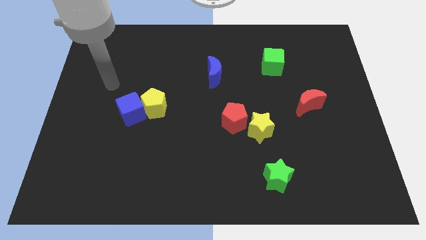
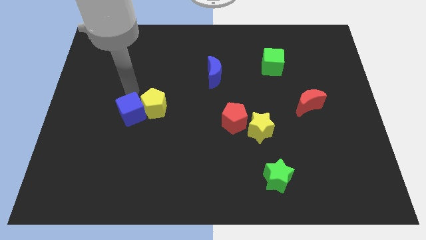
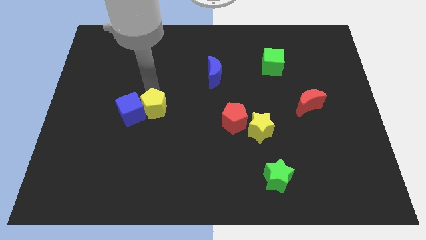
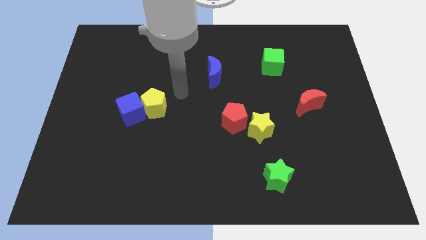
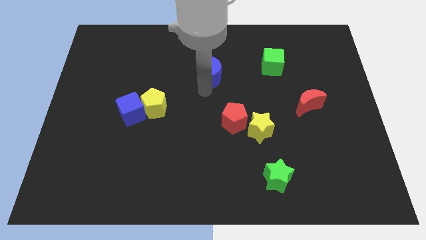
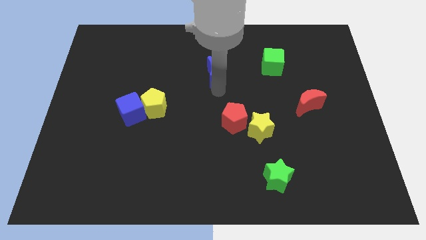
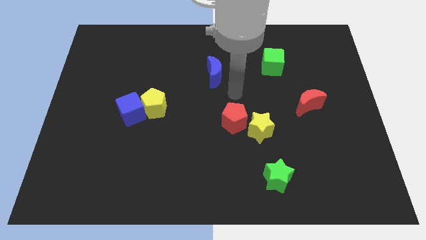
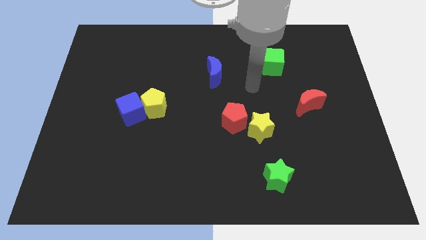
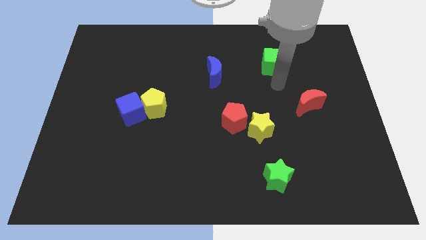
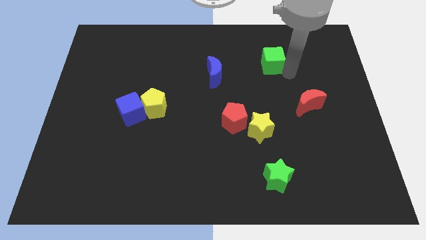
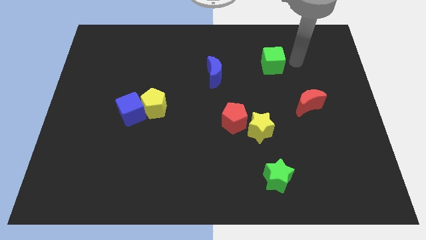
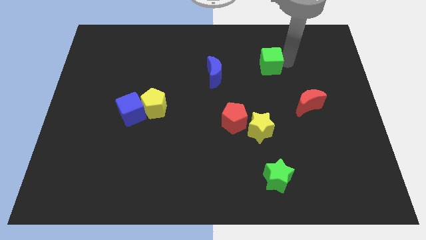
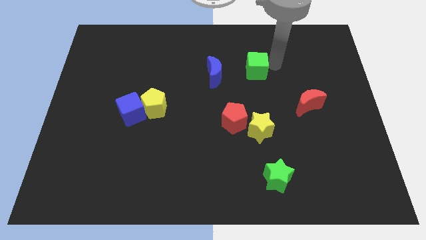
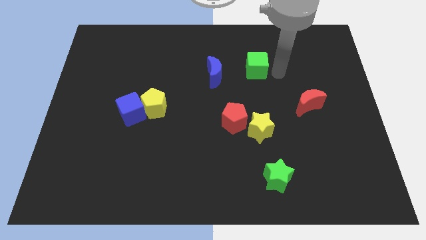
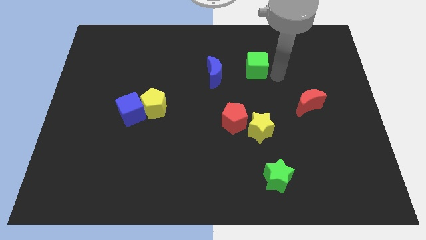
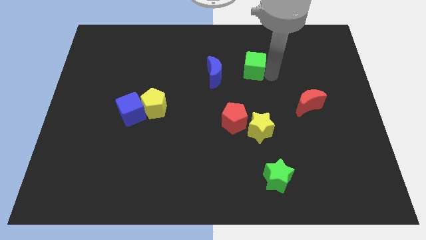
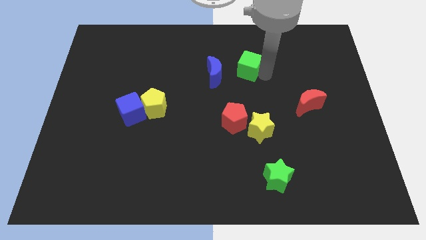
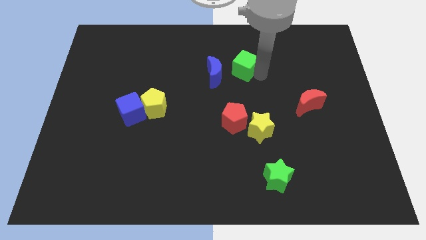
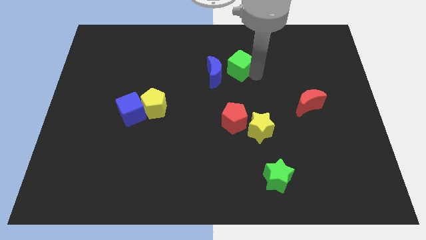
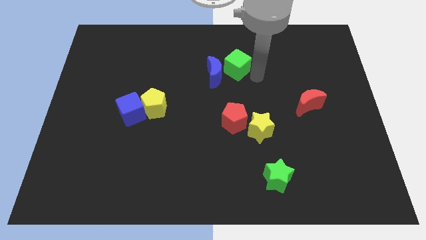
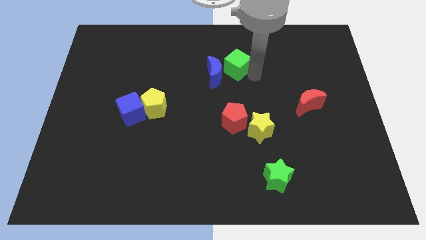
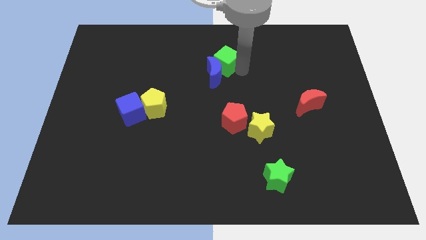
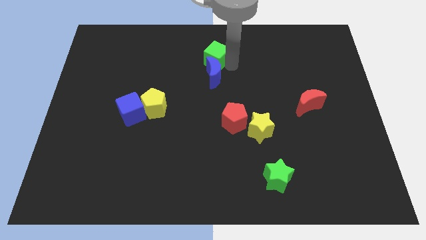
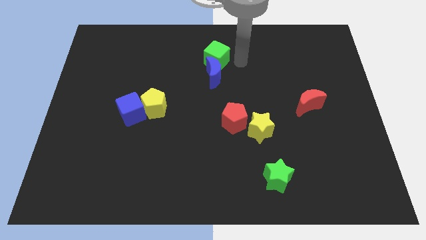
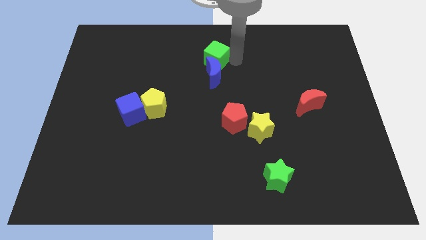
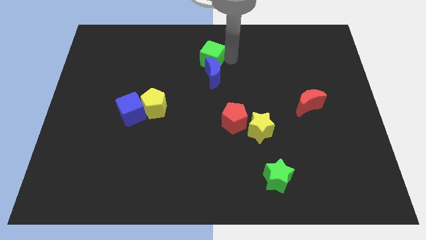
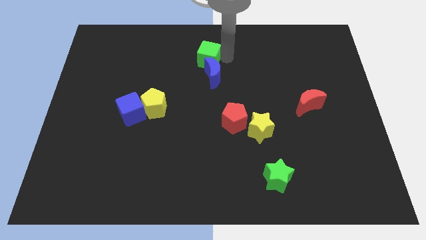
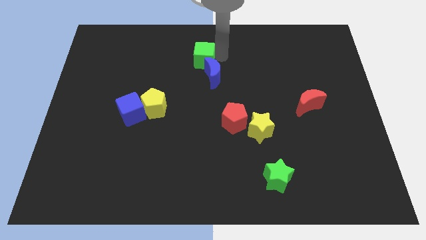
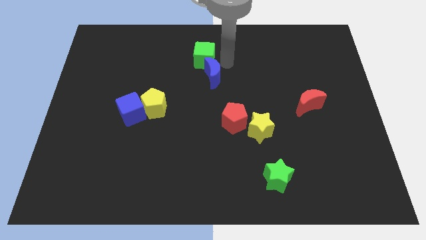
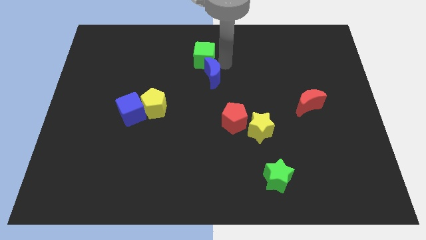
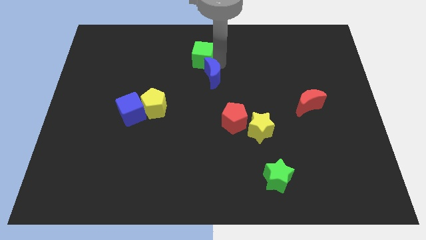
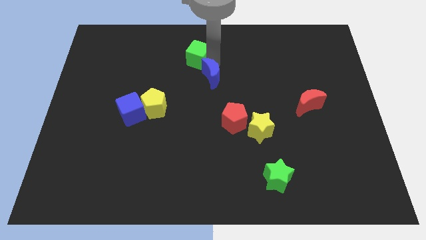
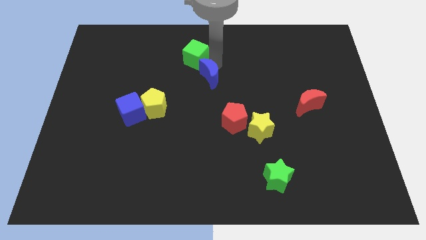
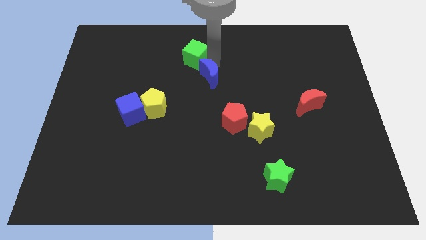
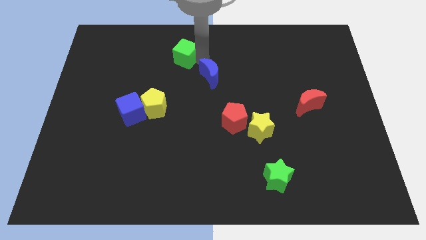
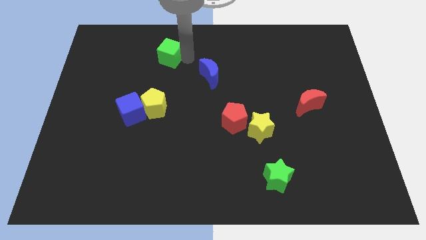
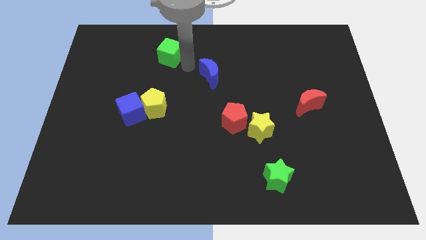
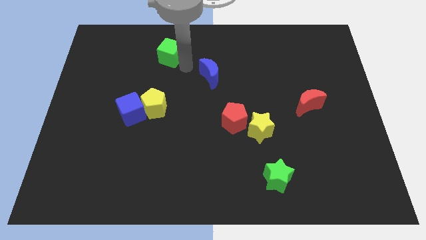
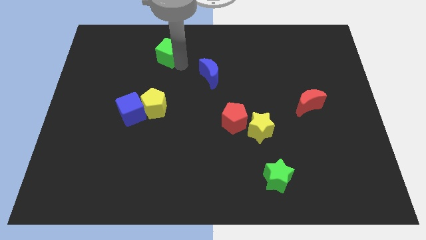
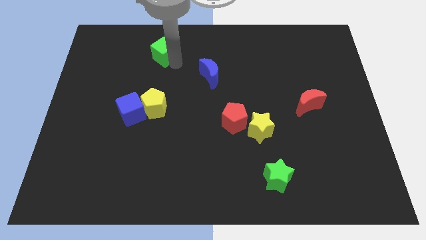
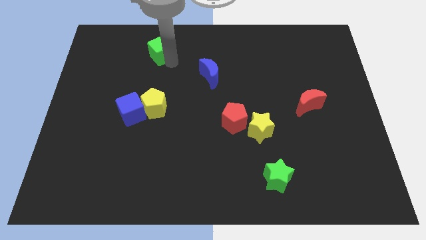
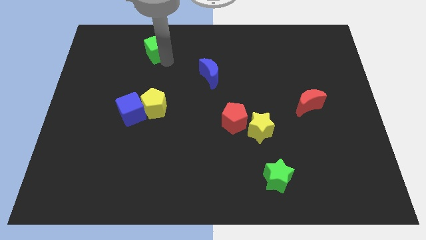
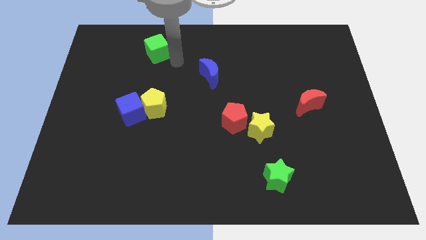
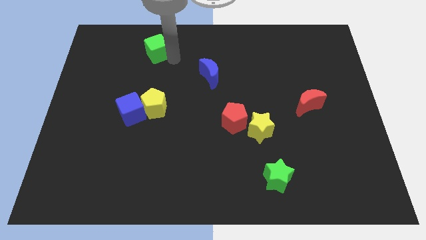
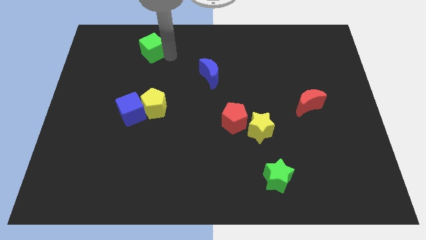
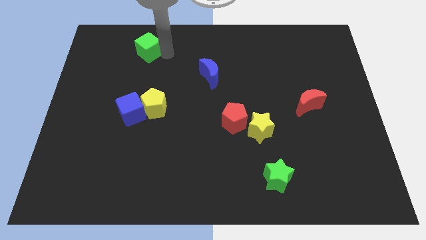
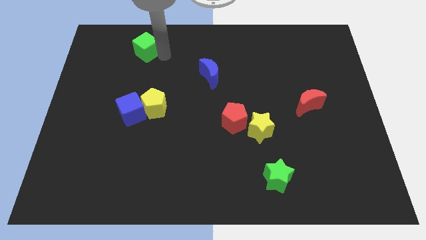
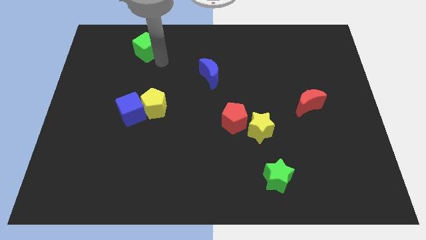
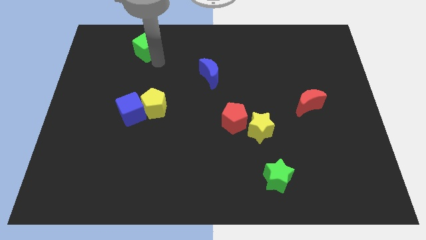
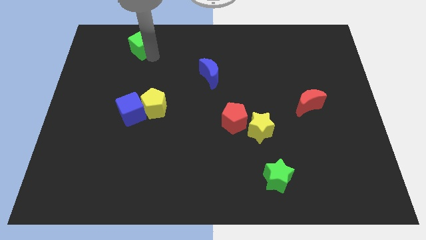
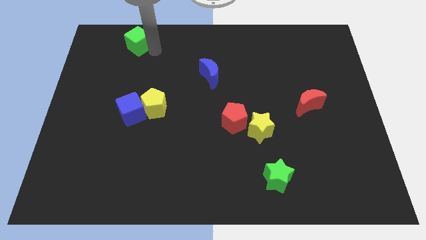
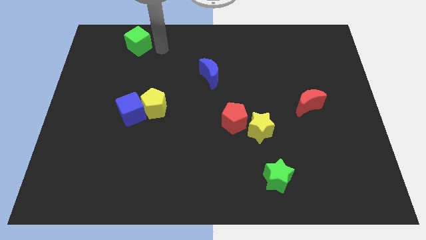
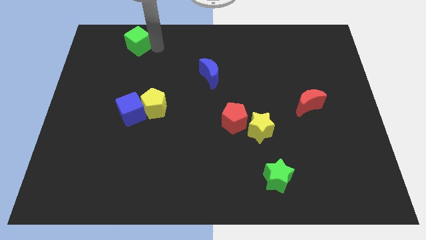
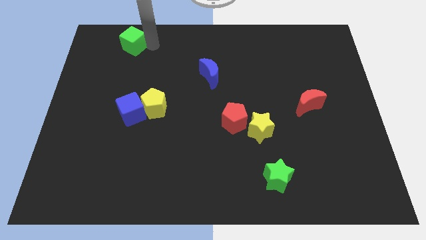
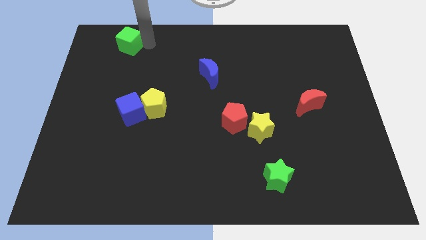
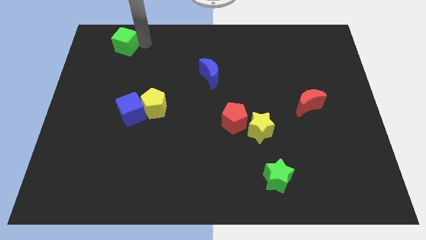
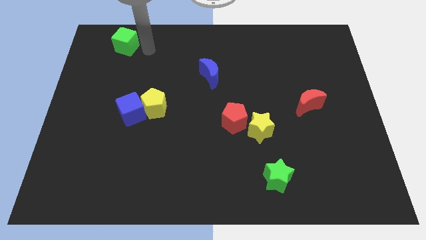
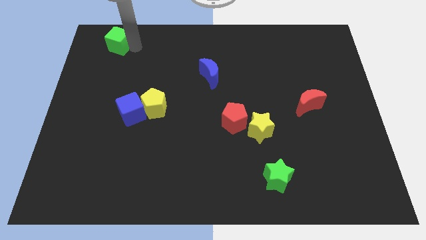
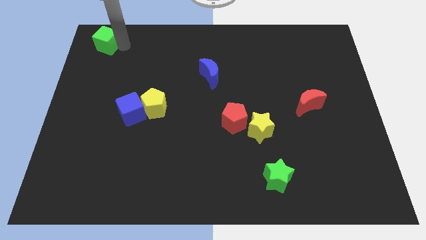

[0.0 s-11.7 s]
push the green cube to the top left
